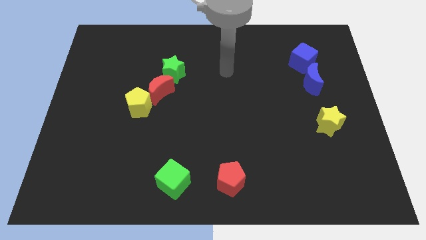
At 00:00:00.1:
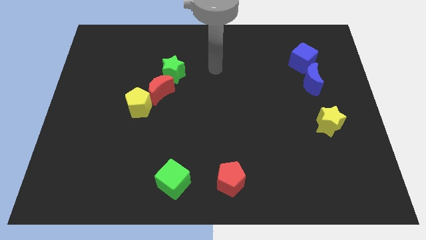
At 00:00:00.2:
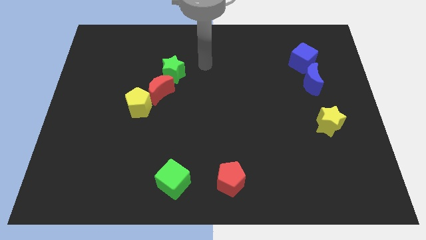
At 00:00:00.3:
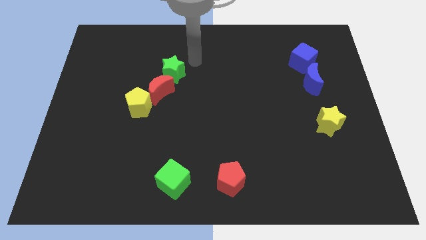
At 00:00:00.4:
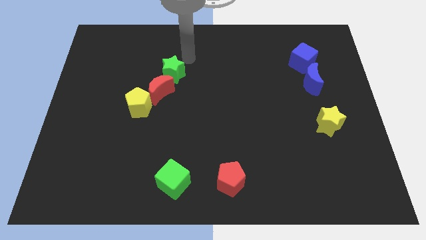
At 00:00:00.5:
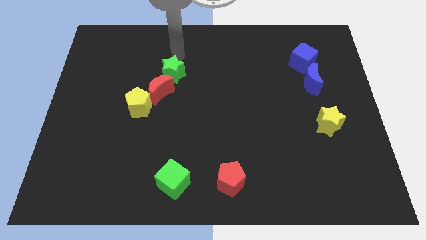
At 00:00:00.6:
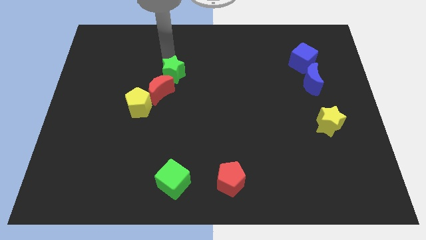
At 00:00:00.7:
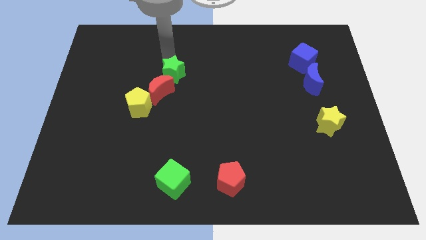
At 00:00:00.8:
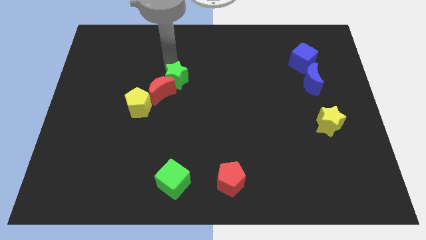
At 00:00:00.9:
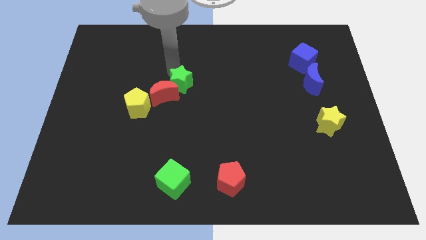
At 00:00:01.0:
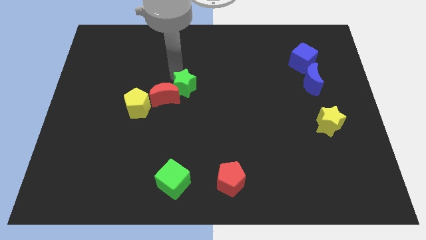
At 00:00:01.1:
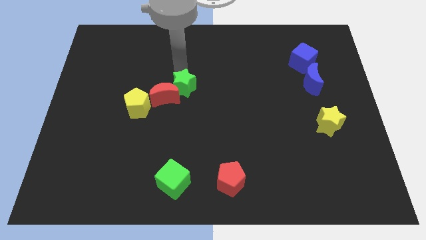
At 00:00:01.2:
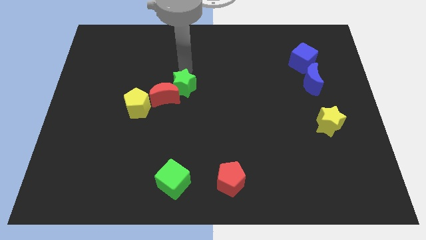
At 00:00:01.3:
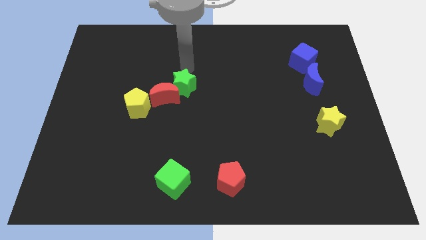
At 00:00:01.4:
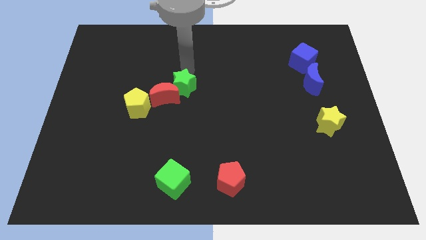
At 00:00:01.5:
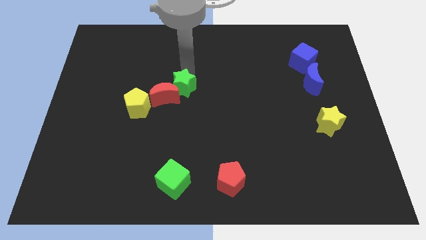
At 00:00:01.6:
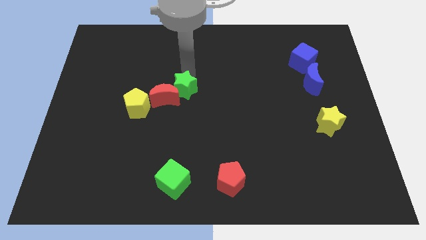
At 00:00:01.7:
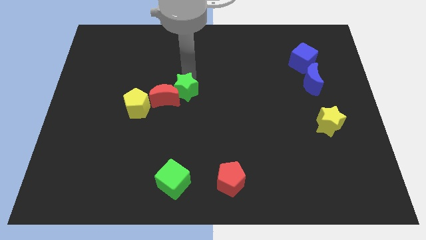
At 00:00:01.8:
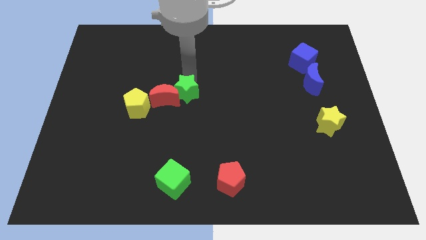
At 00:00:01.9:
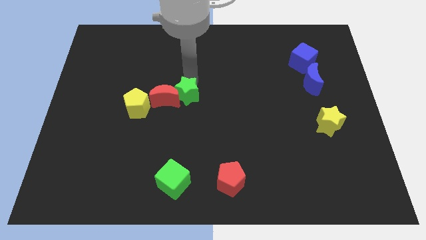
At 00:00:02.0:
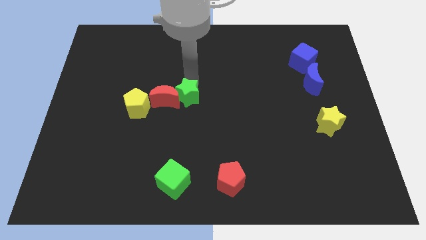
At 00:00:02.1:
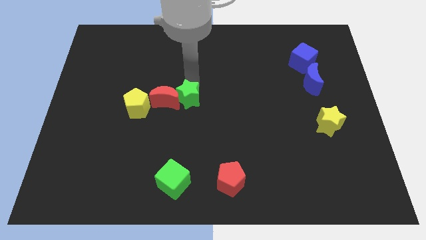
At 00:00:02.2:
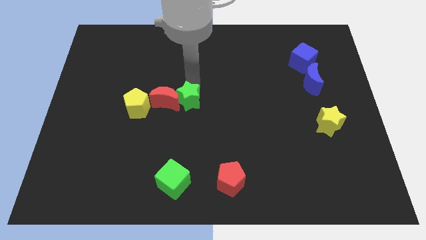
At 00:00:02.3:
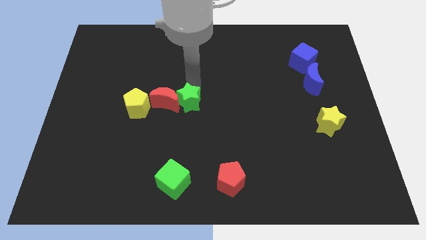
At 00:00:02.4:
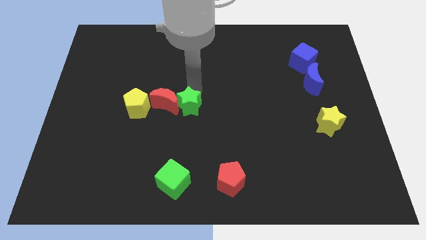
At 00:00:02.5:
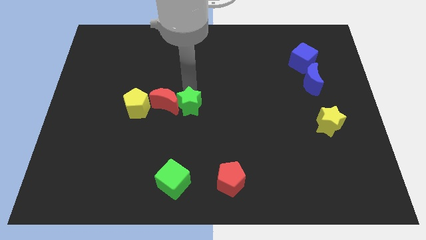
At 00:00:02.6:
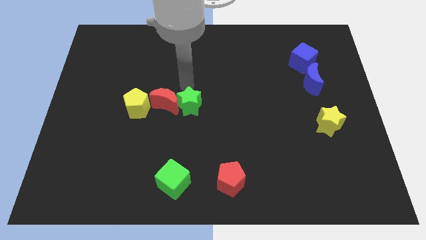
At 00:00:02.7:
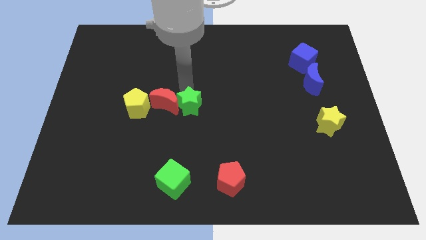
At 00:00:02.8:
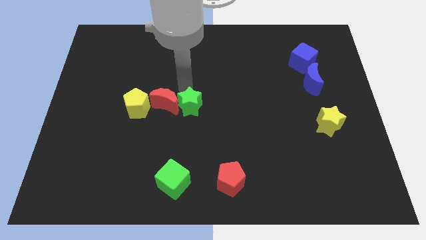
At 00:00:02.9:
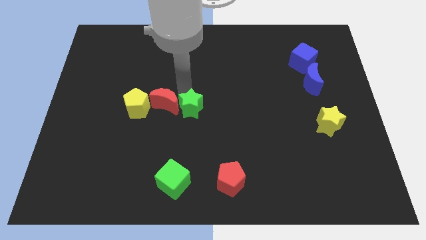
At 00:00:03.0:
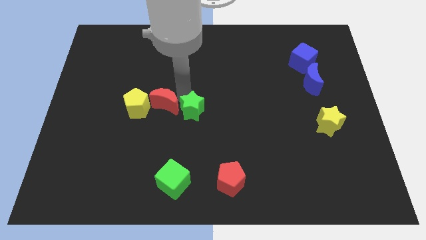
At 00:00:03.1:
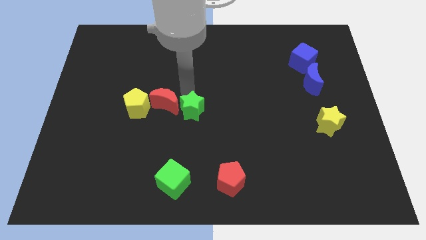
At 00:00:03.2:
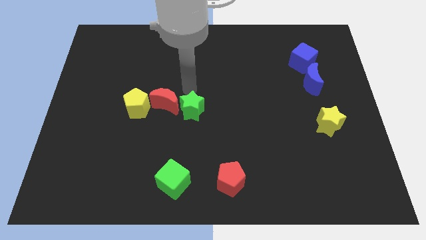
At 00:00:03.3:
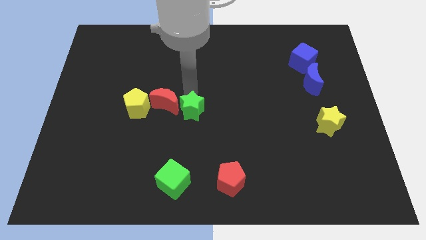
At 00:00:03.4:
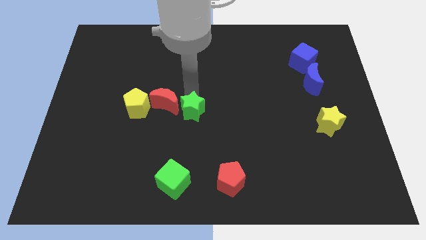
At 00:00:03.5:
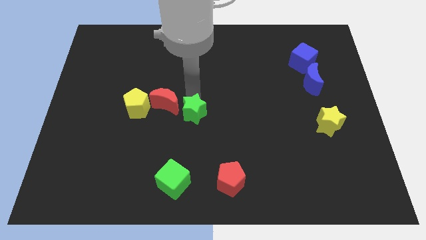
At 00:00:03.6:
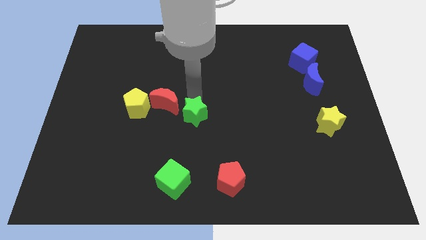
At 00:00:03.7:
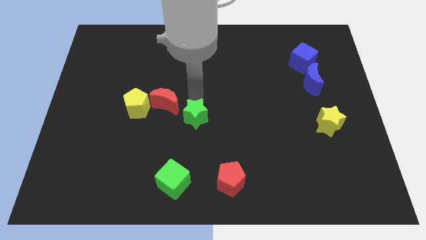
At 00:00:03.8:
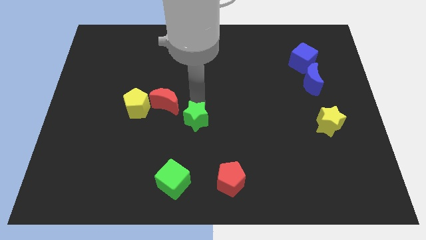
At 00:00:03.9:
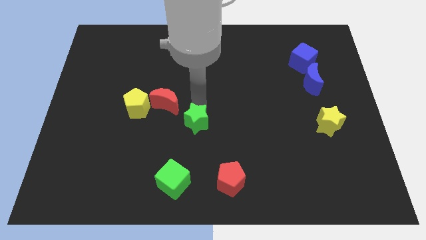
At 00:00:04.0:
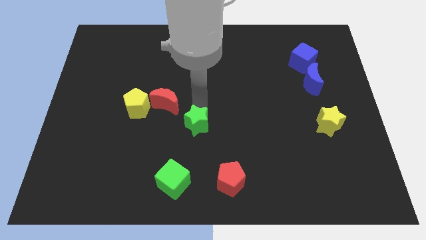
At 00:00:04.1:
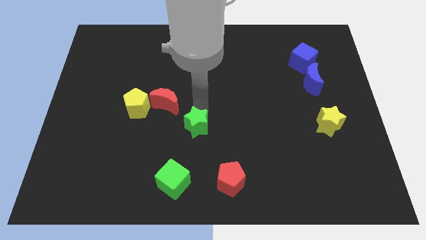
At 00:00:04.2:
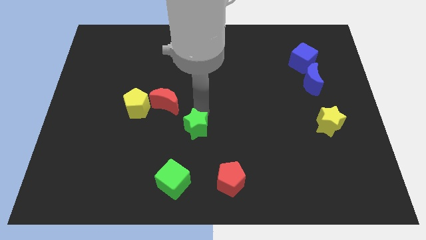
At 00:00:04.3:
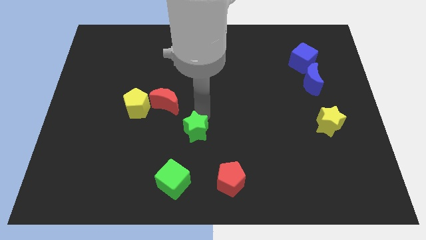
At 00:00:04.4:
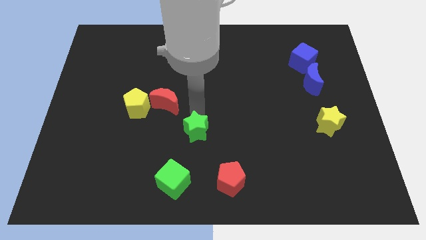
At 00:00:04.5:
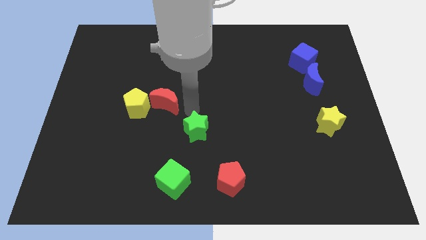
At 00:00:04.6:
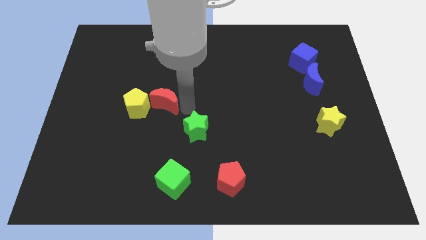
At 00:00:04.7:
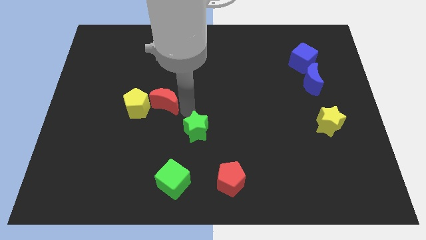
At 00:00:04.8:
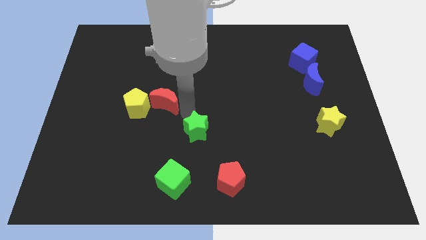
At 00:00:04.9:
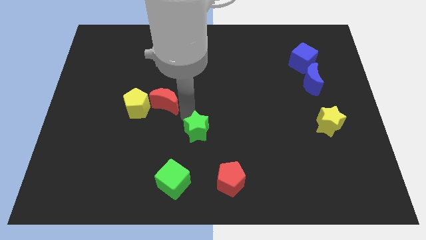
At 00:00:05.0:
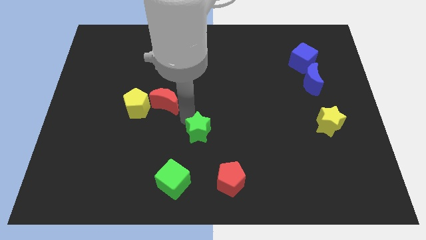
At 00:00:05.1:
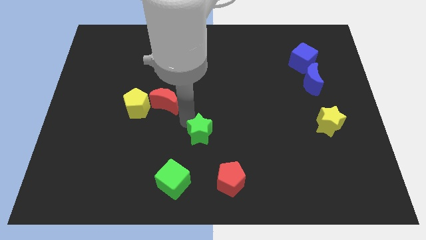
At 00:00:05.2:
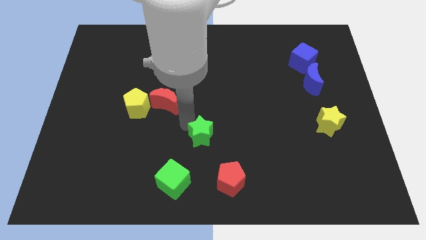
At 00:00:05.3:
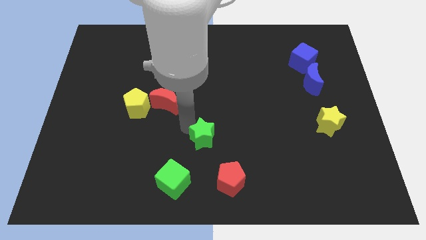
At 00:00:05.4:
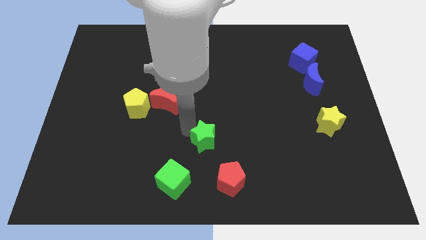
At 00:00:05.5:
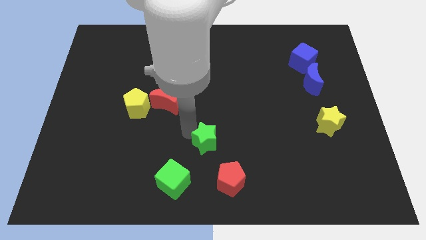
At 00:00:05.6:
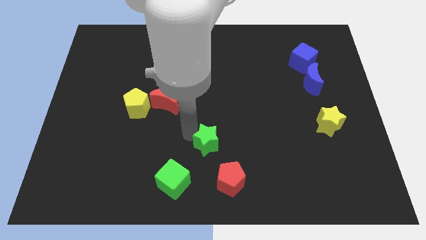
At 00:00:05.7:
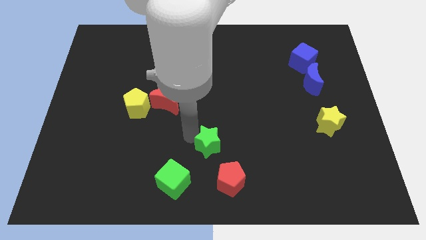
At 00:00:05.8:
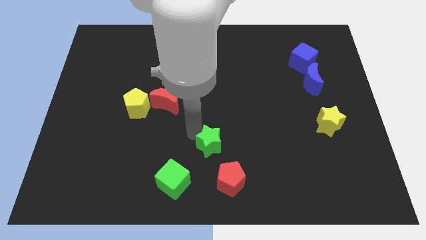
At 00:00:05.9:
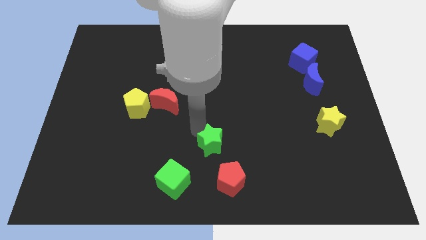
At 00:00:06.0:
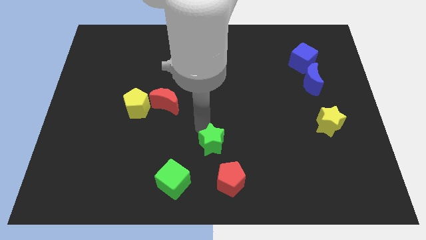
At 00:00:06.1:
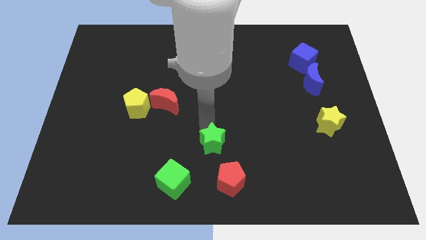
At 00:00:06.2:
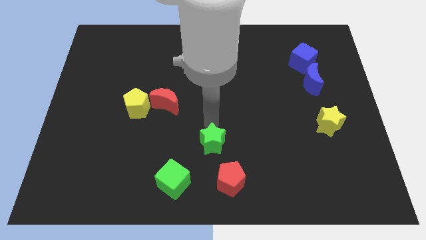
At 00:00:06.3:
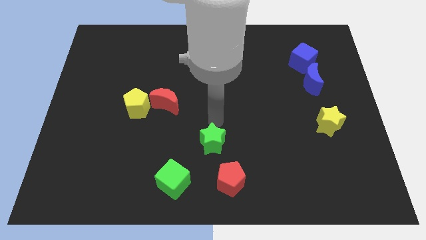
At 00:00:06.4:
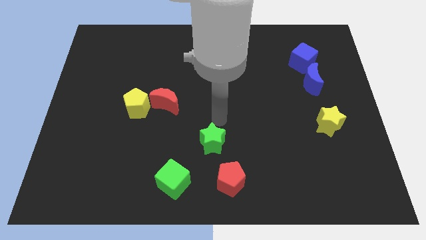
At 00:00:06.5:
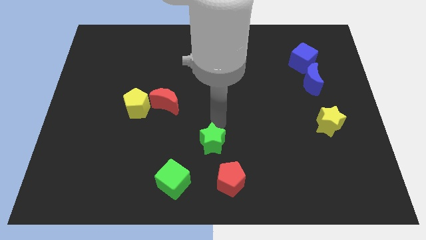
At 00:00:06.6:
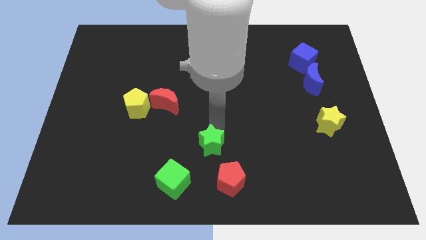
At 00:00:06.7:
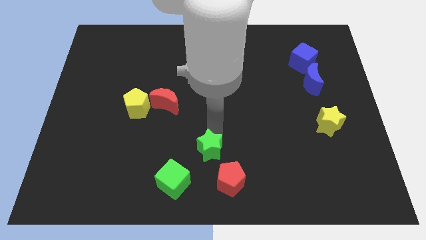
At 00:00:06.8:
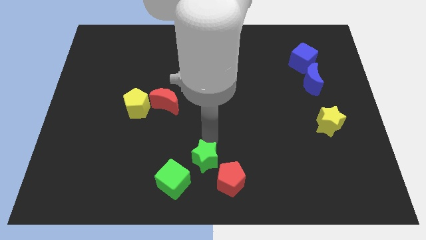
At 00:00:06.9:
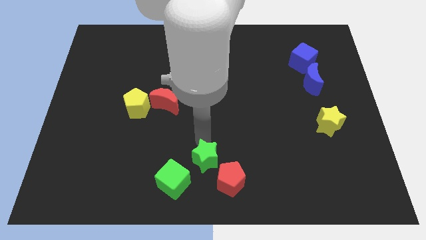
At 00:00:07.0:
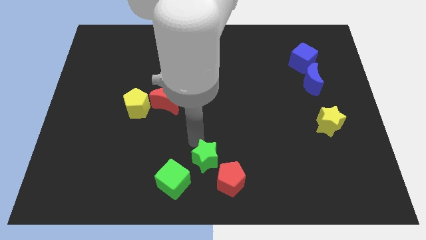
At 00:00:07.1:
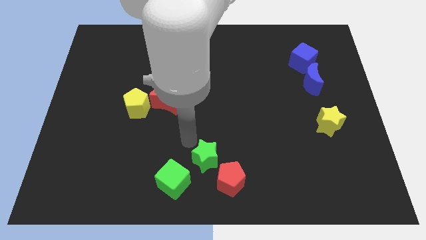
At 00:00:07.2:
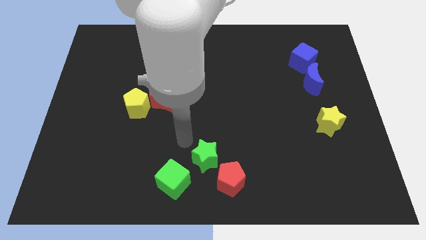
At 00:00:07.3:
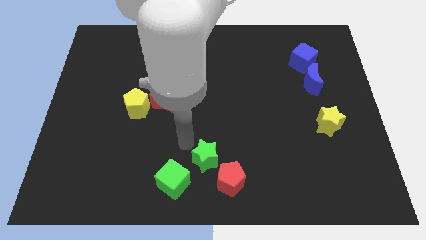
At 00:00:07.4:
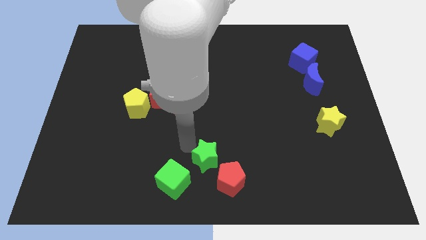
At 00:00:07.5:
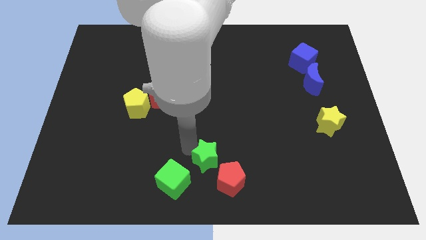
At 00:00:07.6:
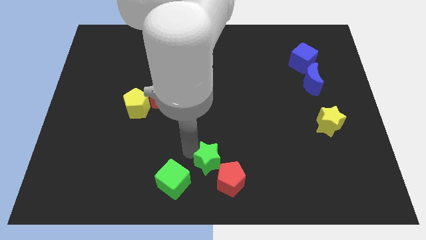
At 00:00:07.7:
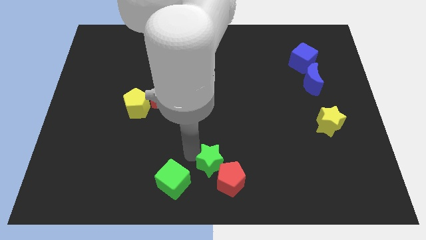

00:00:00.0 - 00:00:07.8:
push the green star towards the red pentagon
